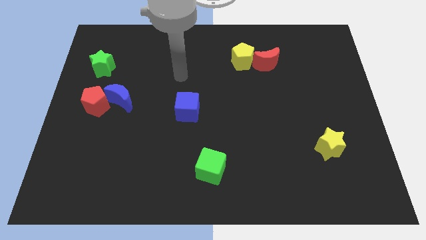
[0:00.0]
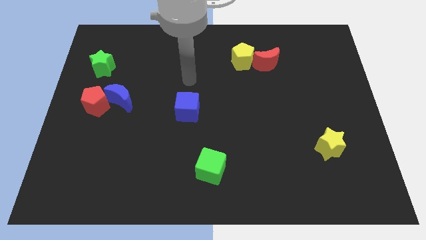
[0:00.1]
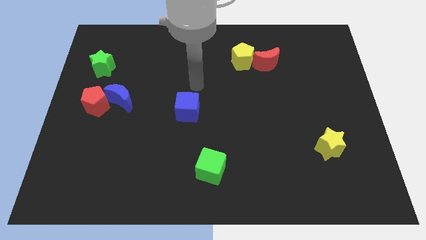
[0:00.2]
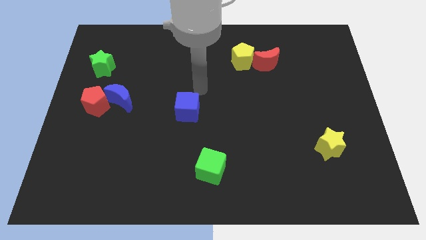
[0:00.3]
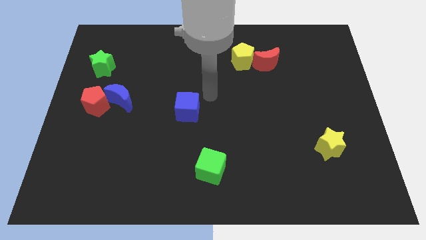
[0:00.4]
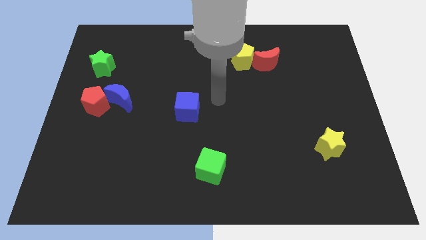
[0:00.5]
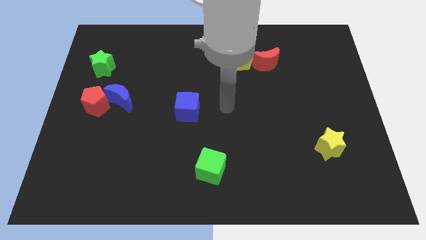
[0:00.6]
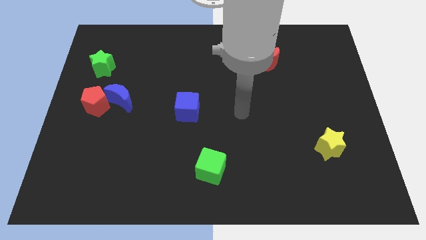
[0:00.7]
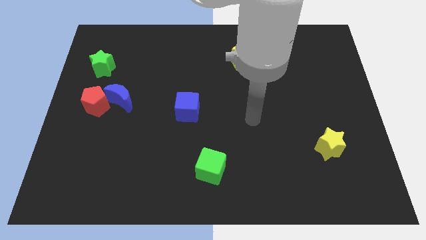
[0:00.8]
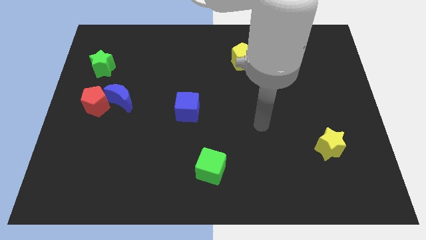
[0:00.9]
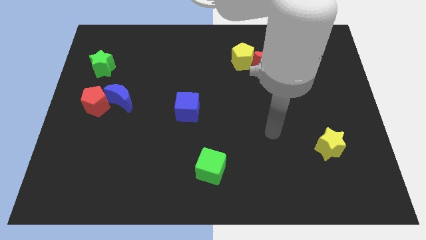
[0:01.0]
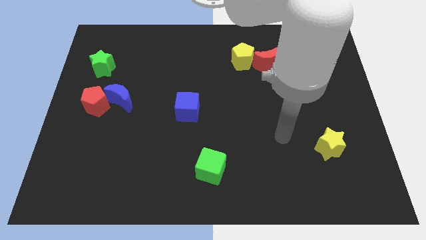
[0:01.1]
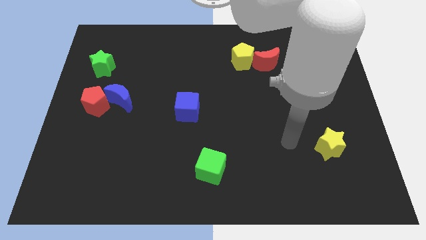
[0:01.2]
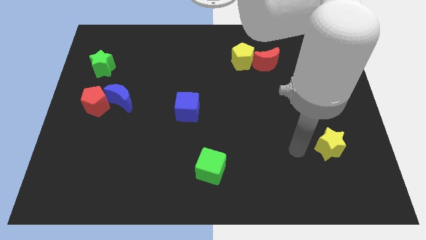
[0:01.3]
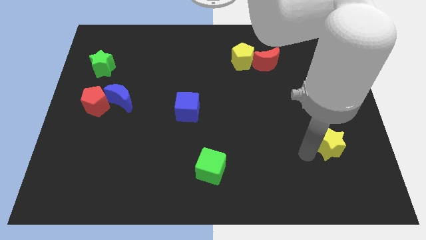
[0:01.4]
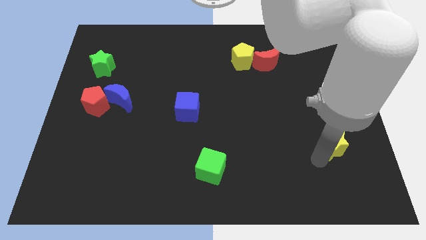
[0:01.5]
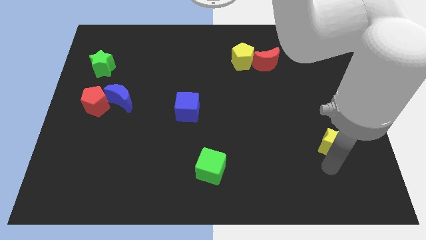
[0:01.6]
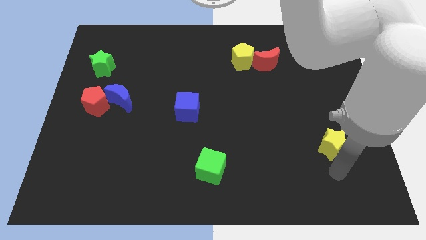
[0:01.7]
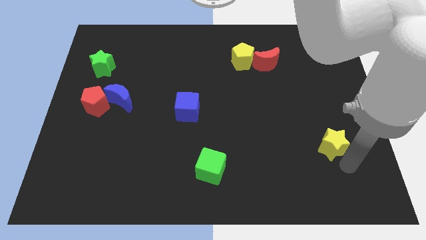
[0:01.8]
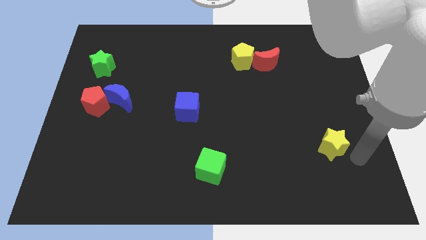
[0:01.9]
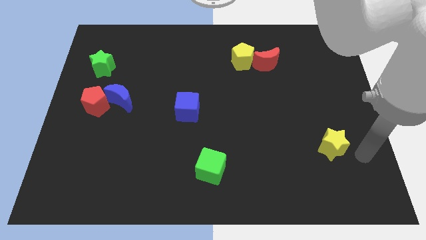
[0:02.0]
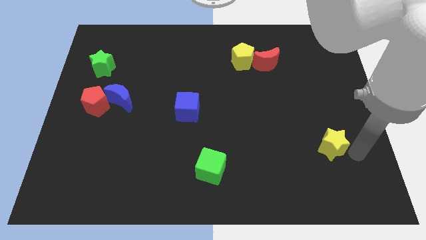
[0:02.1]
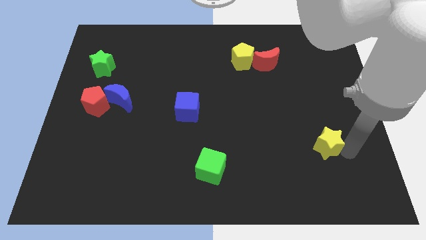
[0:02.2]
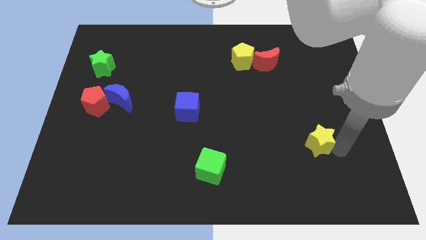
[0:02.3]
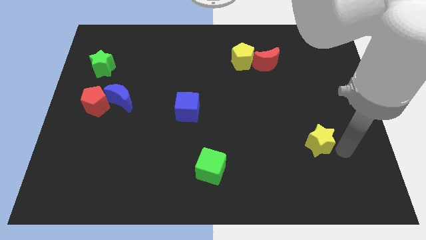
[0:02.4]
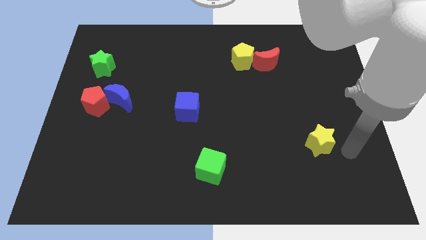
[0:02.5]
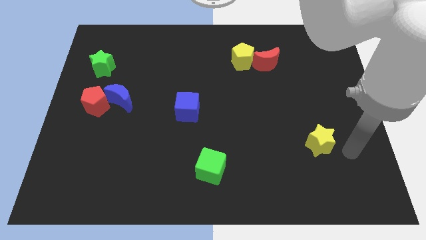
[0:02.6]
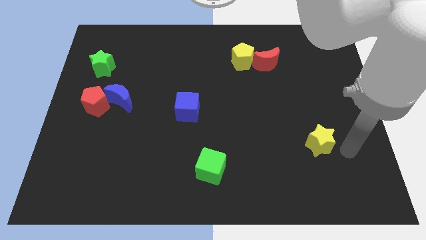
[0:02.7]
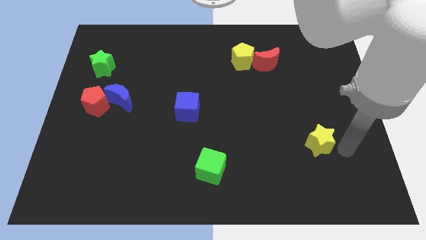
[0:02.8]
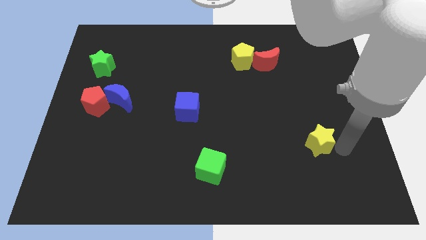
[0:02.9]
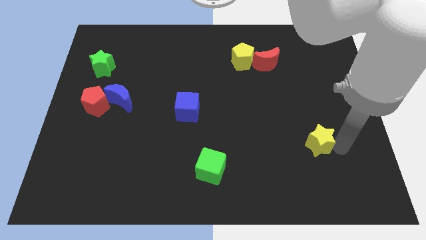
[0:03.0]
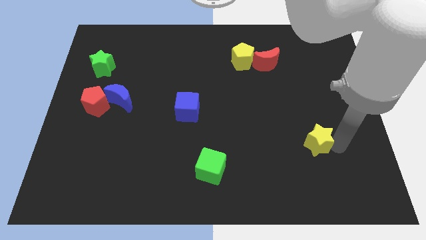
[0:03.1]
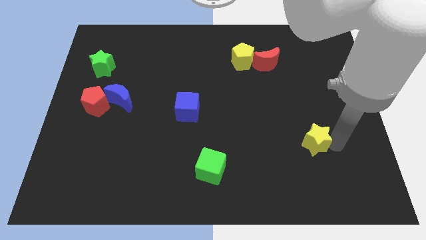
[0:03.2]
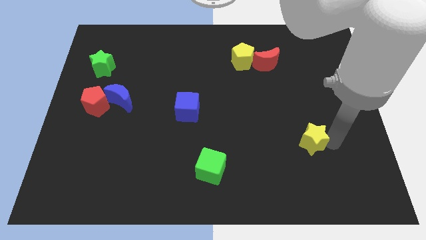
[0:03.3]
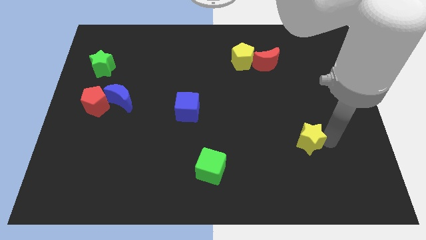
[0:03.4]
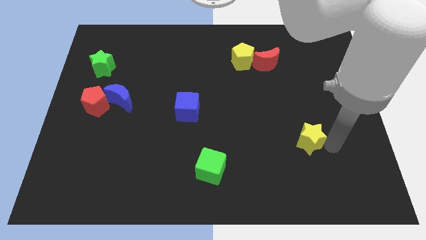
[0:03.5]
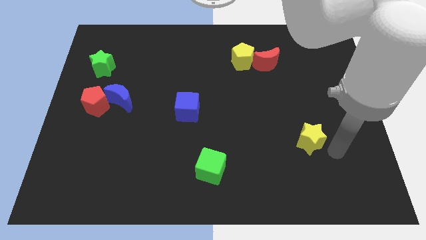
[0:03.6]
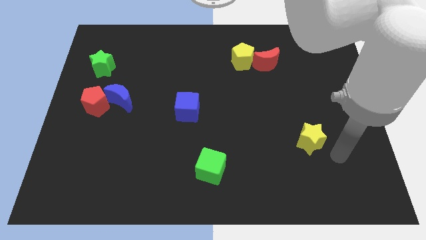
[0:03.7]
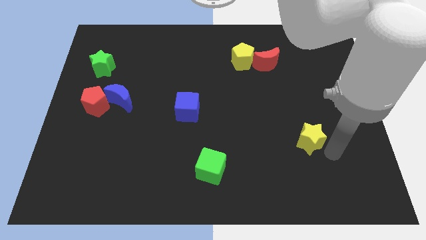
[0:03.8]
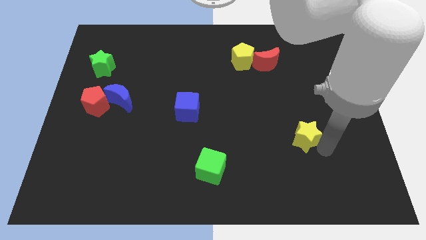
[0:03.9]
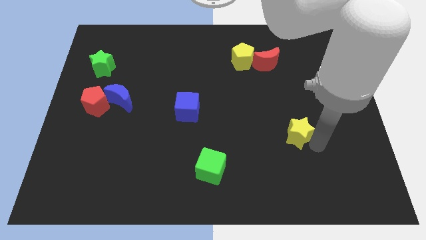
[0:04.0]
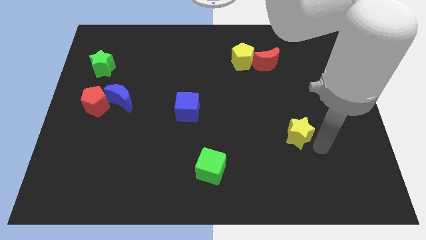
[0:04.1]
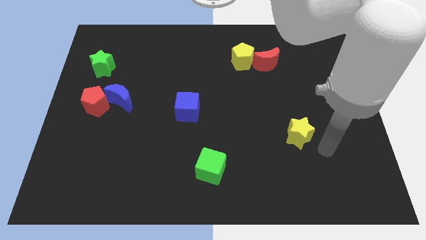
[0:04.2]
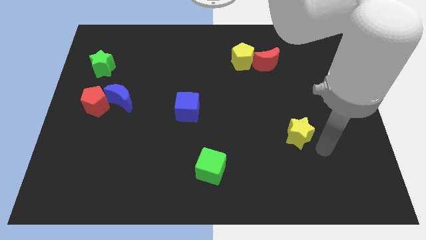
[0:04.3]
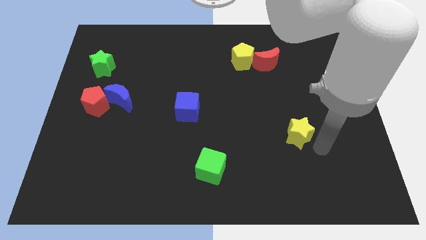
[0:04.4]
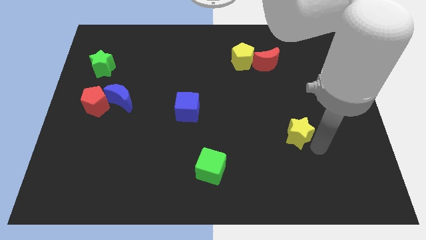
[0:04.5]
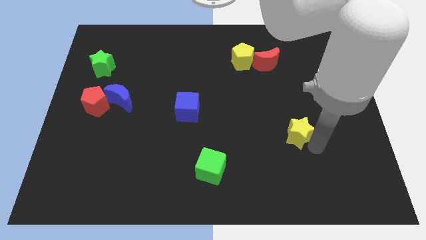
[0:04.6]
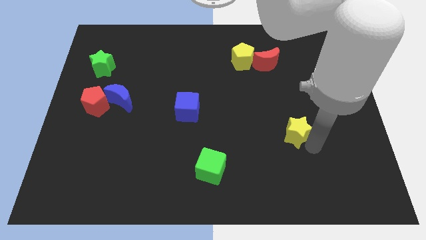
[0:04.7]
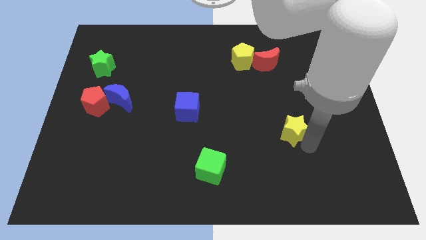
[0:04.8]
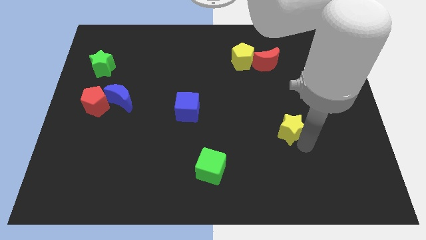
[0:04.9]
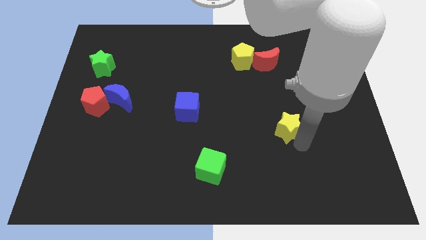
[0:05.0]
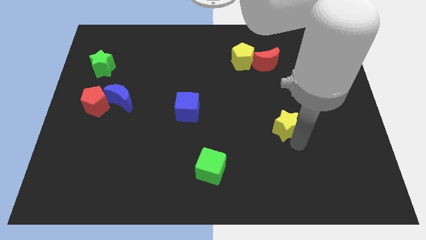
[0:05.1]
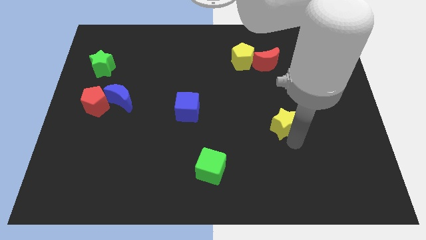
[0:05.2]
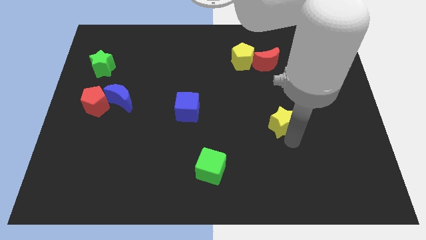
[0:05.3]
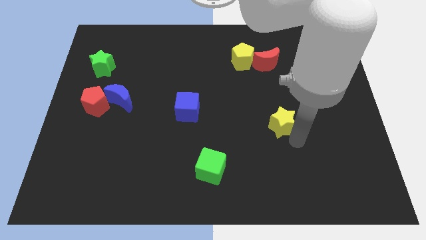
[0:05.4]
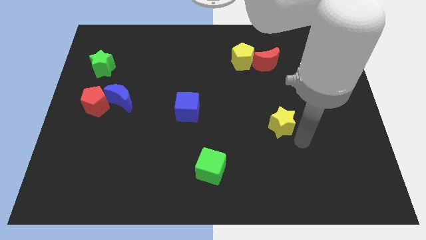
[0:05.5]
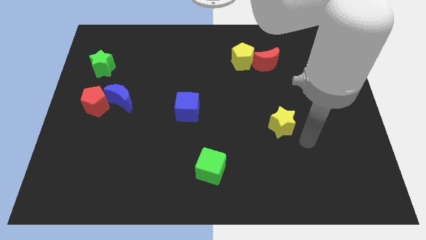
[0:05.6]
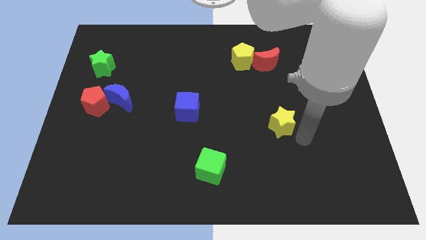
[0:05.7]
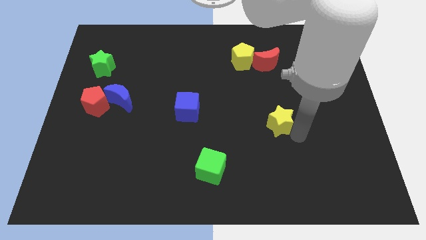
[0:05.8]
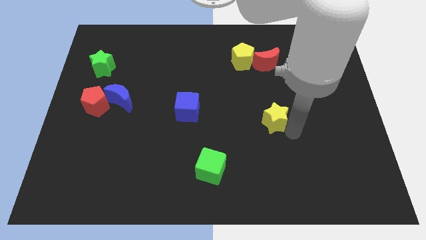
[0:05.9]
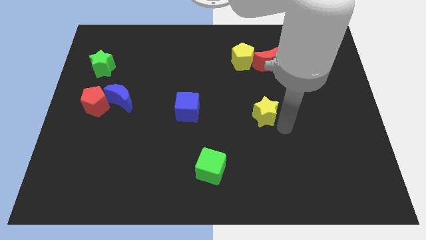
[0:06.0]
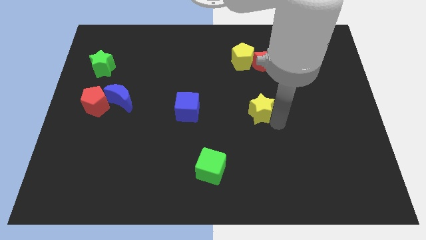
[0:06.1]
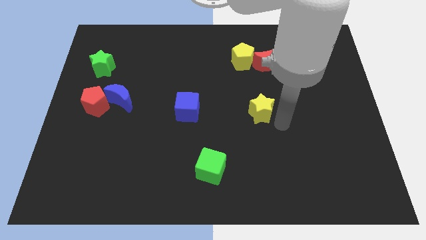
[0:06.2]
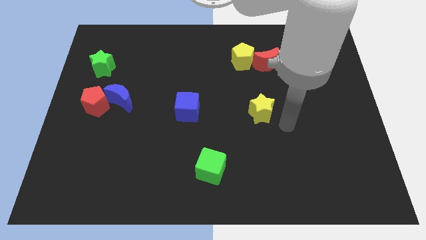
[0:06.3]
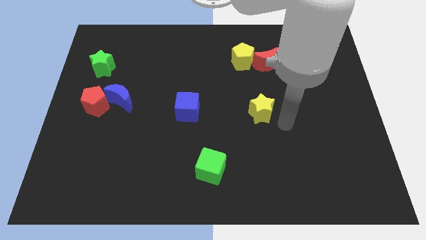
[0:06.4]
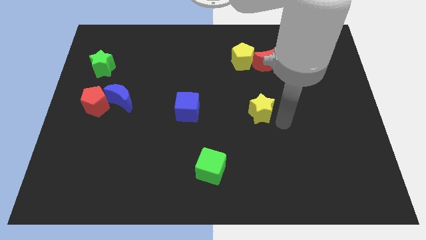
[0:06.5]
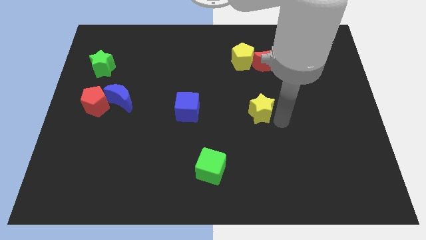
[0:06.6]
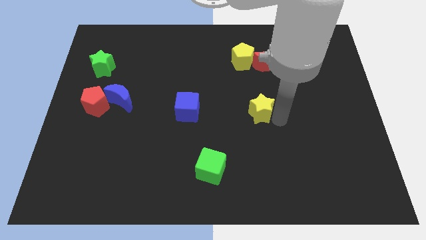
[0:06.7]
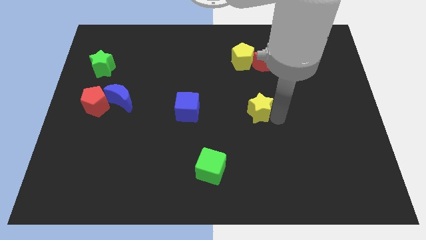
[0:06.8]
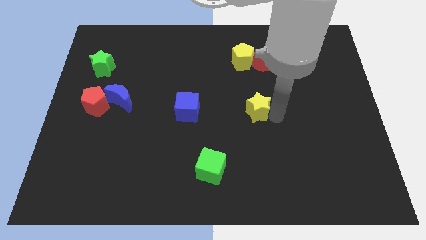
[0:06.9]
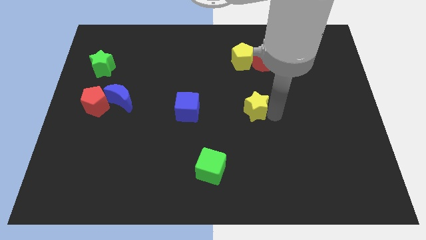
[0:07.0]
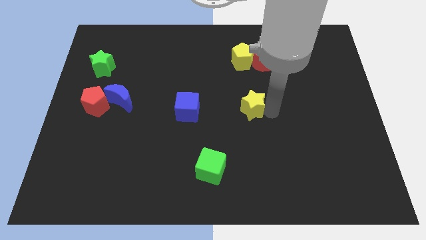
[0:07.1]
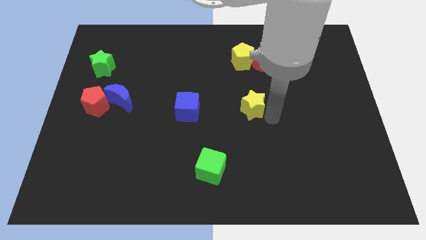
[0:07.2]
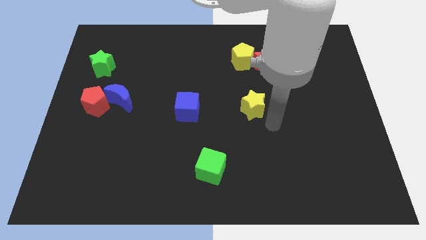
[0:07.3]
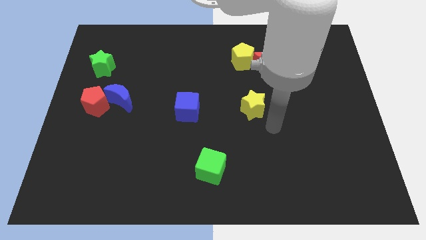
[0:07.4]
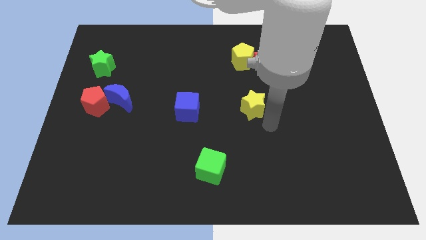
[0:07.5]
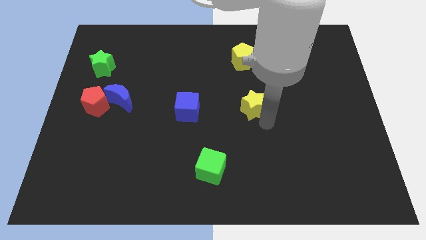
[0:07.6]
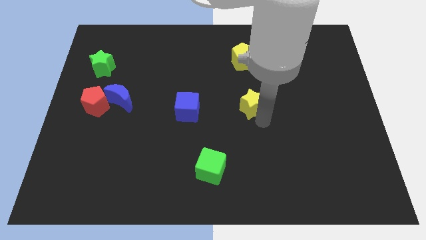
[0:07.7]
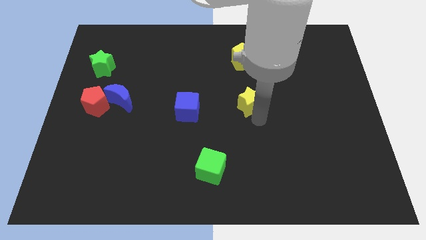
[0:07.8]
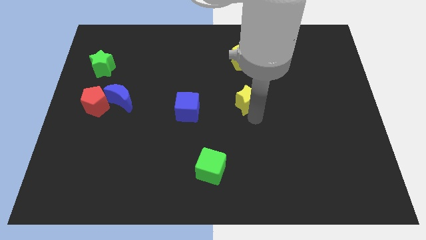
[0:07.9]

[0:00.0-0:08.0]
move the yellow star upwards and to the left

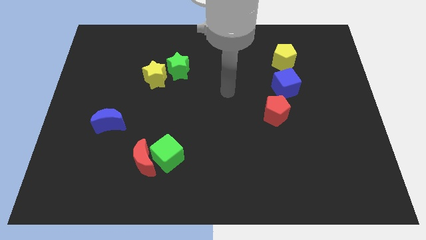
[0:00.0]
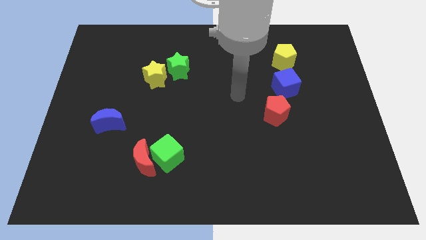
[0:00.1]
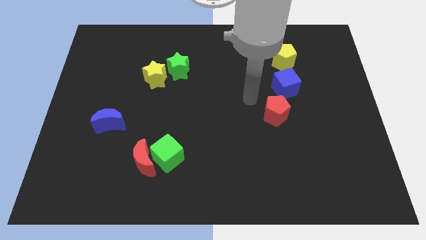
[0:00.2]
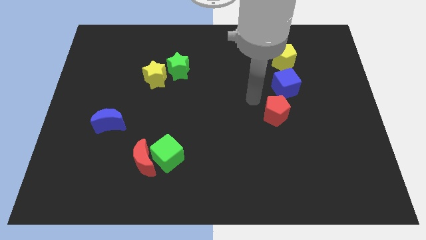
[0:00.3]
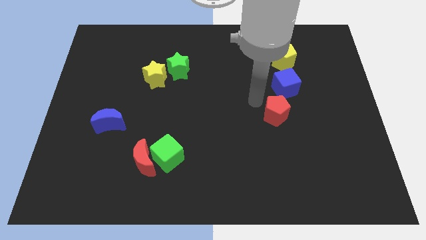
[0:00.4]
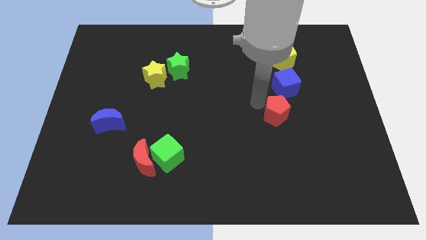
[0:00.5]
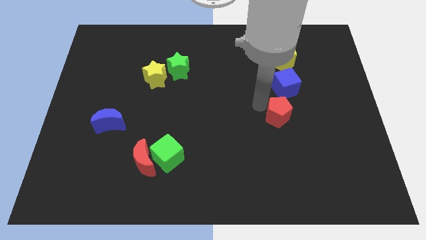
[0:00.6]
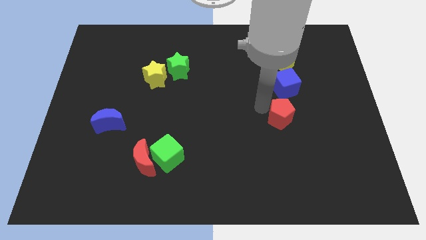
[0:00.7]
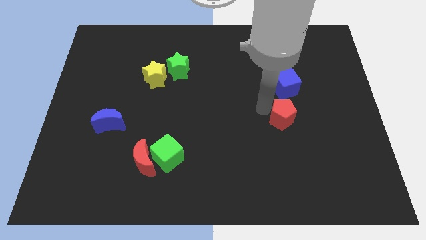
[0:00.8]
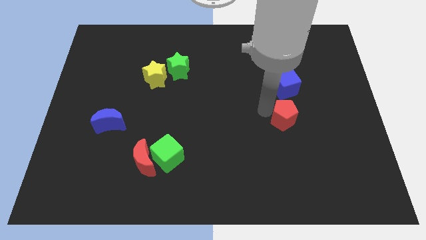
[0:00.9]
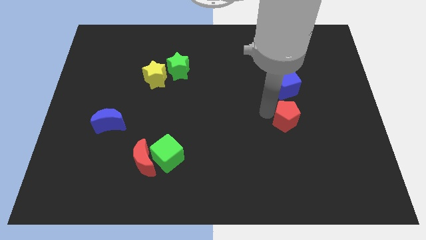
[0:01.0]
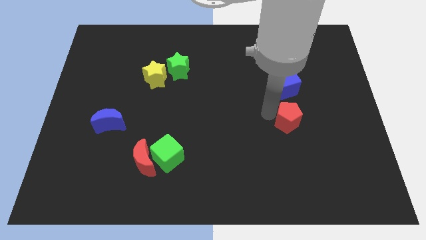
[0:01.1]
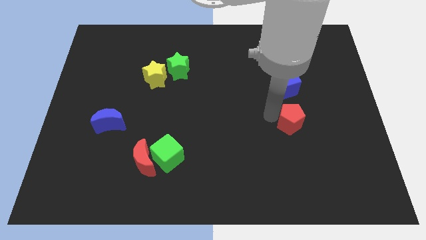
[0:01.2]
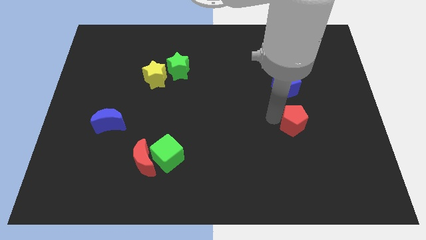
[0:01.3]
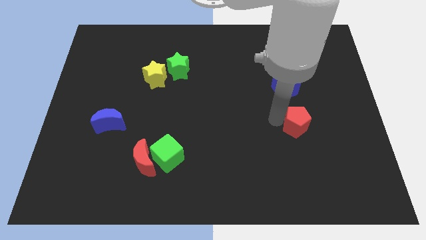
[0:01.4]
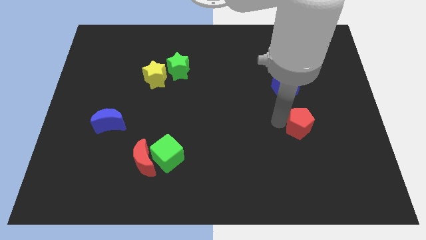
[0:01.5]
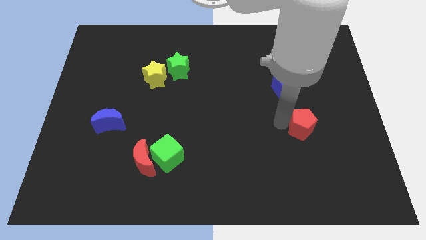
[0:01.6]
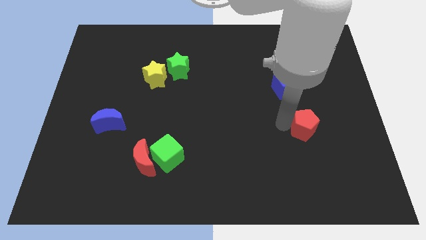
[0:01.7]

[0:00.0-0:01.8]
slightly push the red pentagon diagonally downwards and right
